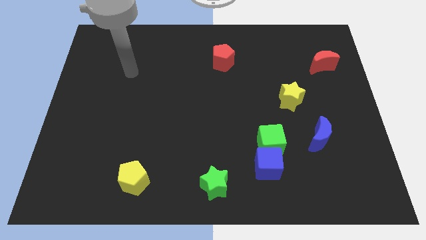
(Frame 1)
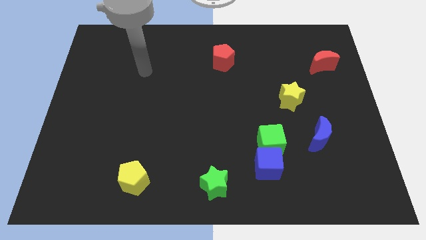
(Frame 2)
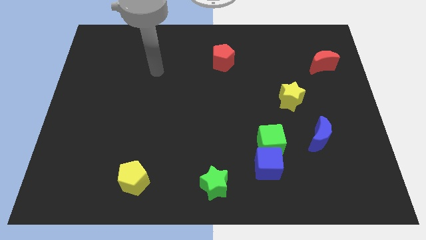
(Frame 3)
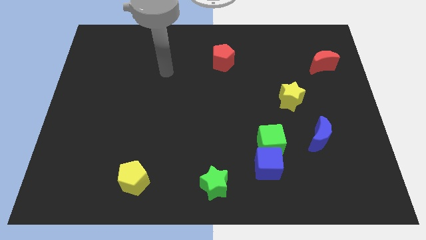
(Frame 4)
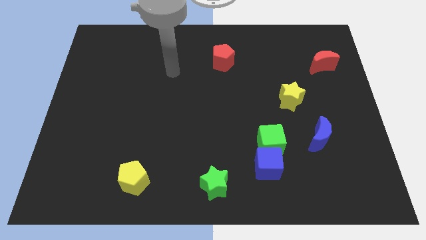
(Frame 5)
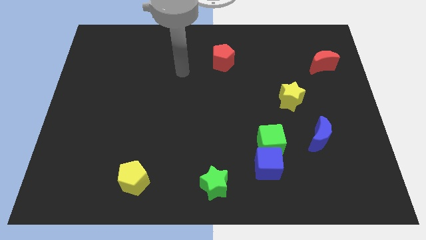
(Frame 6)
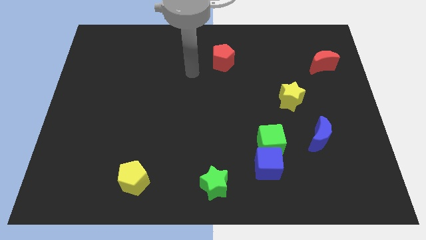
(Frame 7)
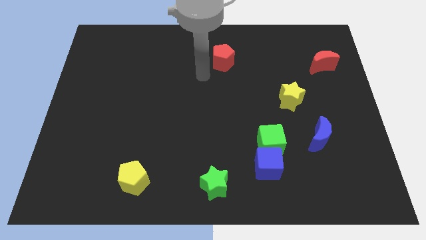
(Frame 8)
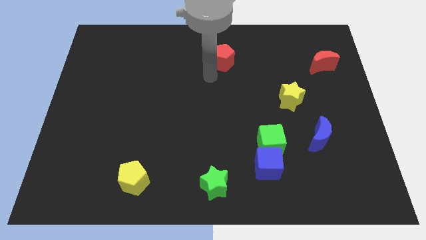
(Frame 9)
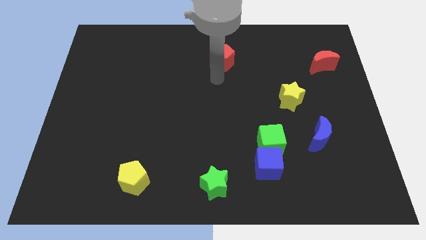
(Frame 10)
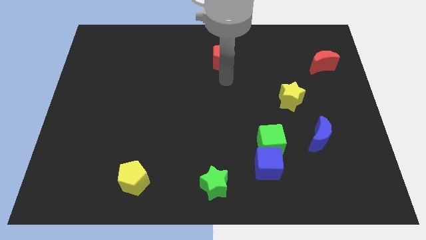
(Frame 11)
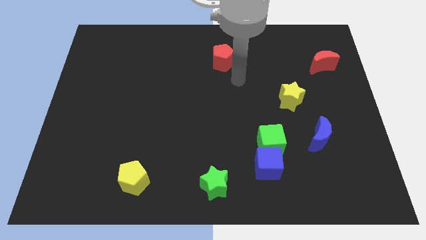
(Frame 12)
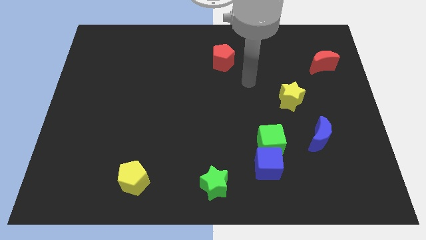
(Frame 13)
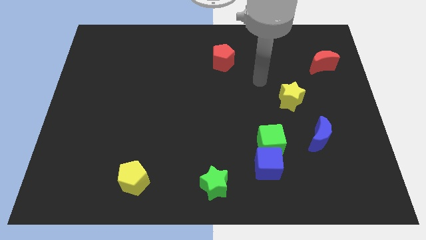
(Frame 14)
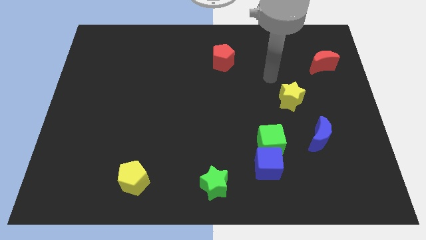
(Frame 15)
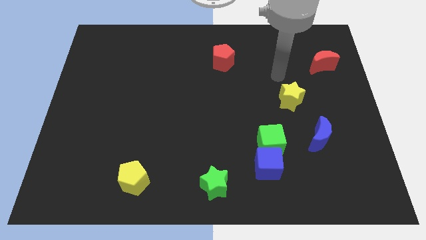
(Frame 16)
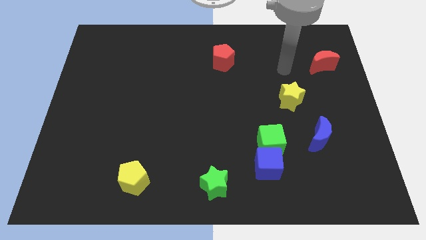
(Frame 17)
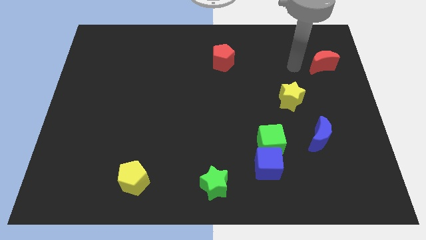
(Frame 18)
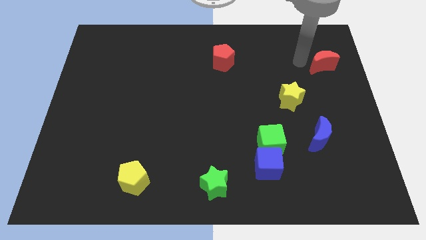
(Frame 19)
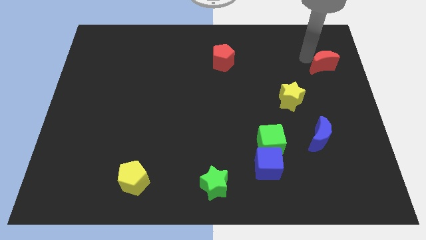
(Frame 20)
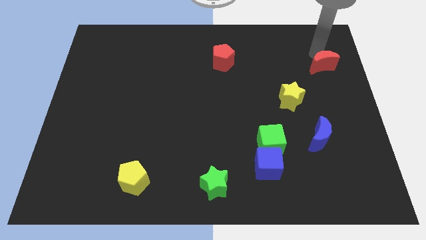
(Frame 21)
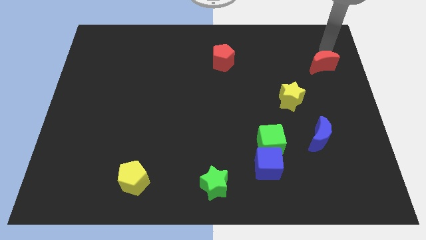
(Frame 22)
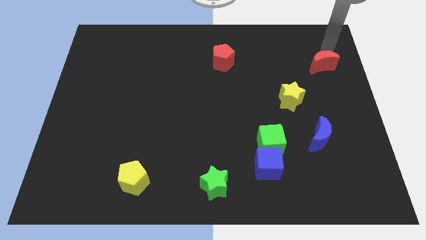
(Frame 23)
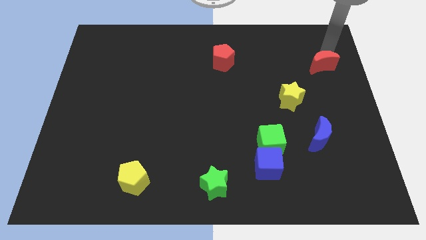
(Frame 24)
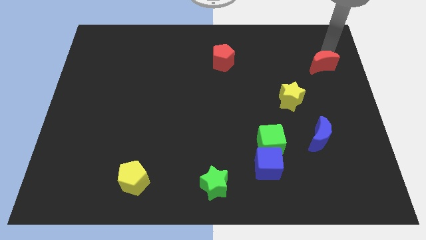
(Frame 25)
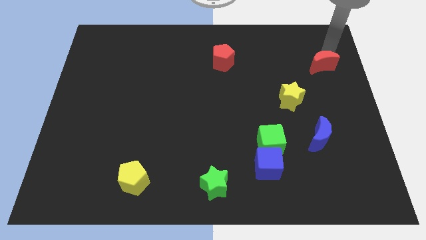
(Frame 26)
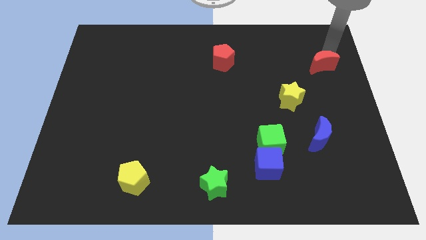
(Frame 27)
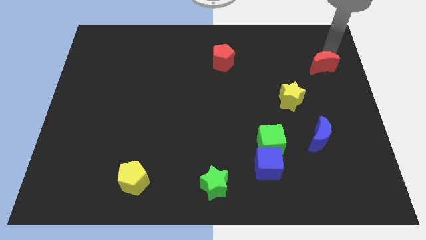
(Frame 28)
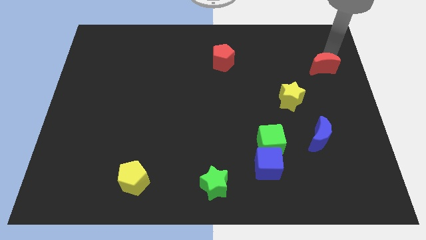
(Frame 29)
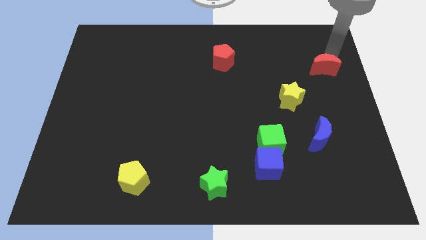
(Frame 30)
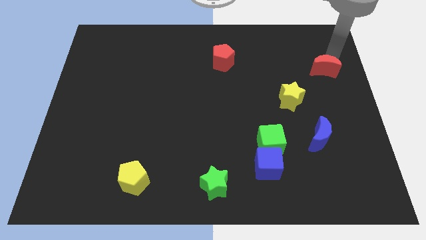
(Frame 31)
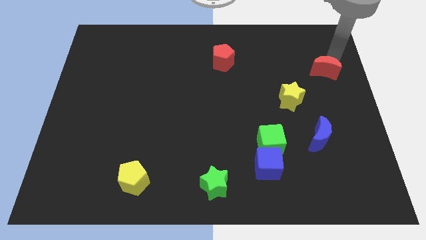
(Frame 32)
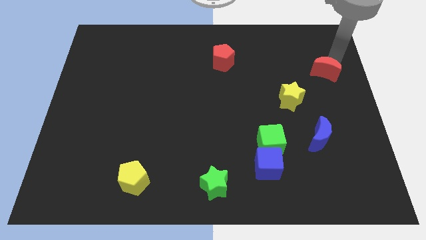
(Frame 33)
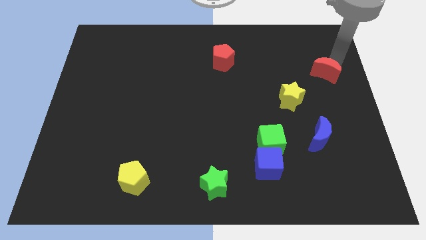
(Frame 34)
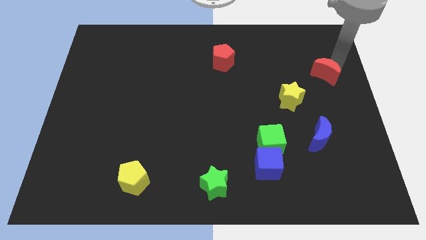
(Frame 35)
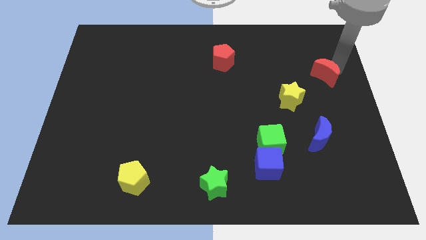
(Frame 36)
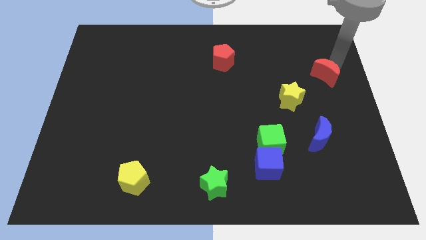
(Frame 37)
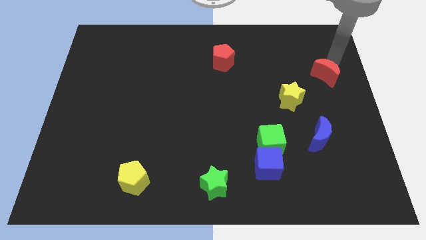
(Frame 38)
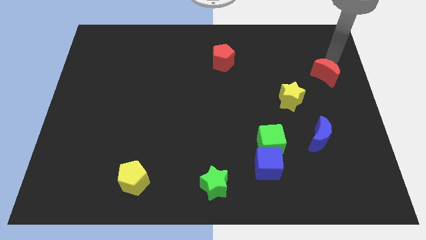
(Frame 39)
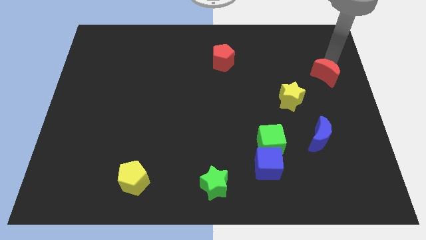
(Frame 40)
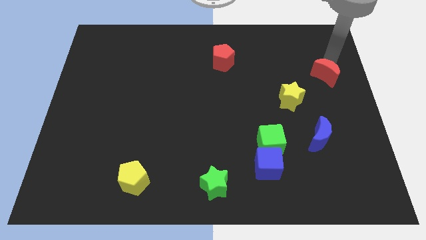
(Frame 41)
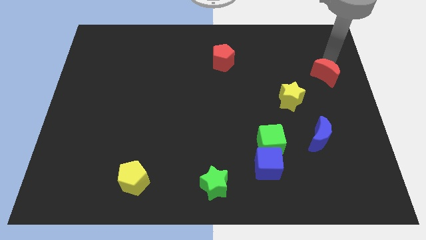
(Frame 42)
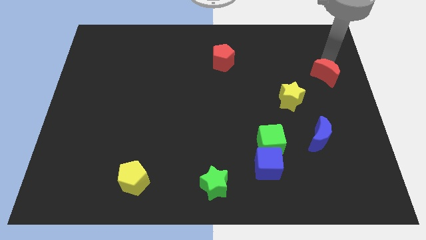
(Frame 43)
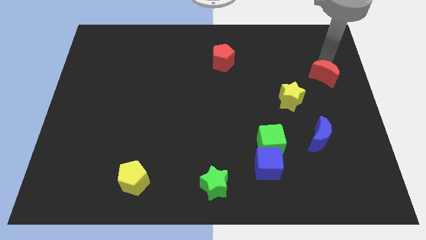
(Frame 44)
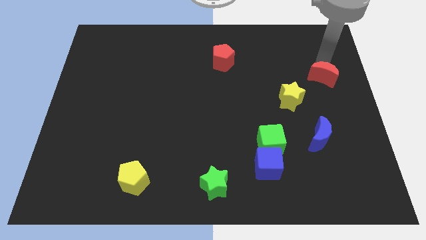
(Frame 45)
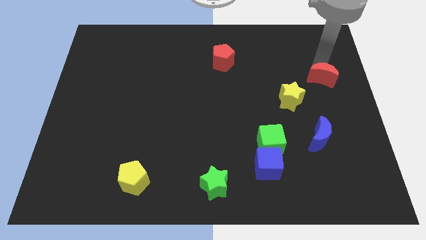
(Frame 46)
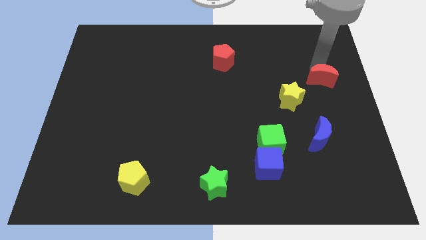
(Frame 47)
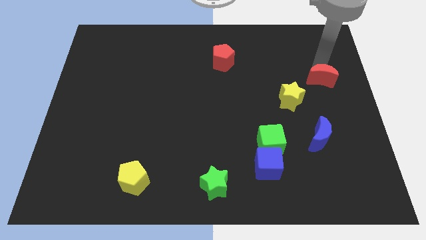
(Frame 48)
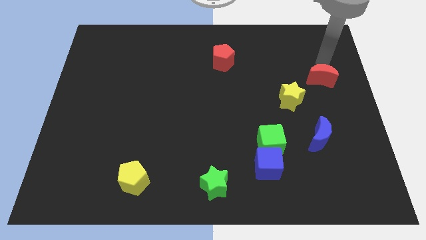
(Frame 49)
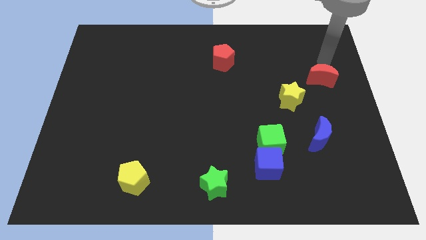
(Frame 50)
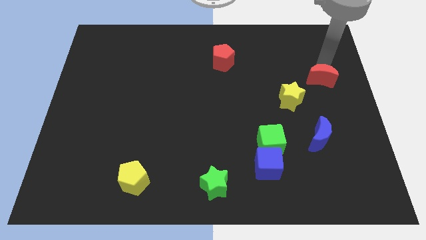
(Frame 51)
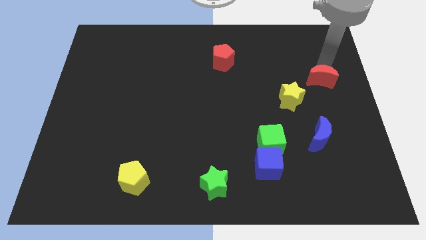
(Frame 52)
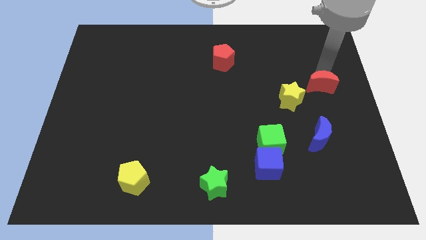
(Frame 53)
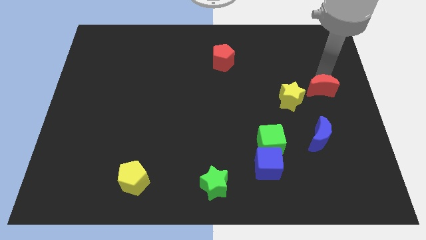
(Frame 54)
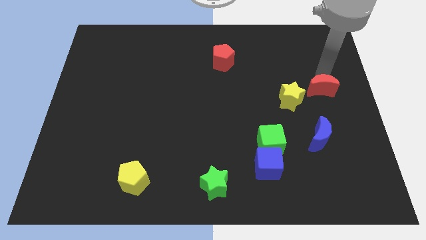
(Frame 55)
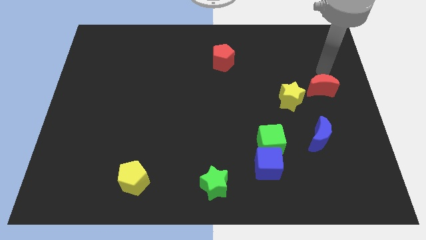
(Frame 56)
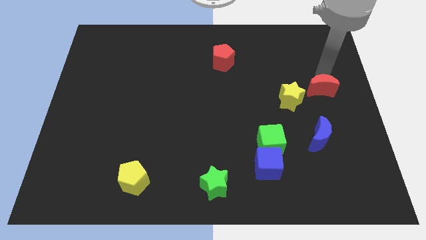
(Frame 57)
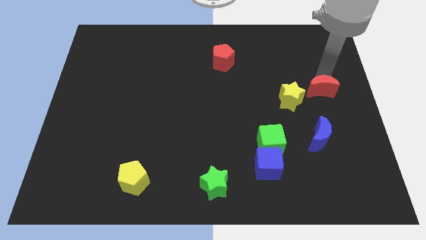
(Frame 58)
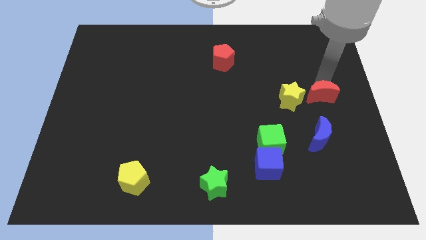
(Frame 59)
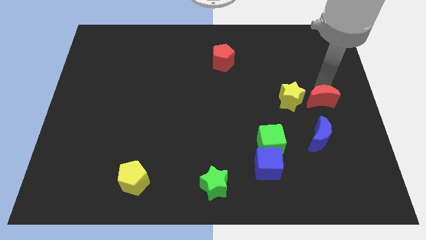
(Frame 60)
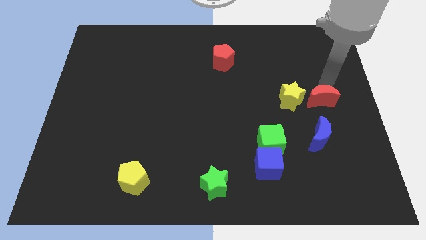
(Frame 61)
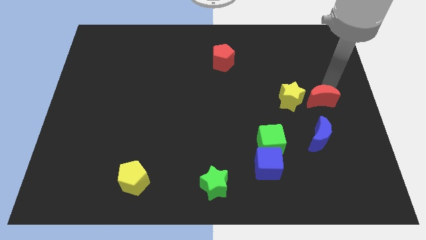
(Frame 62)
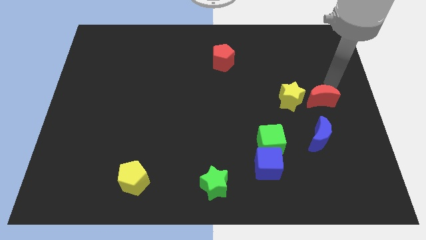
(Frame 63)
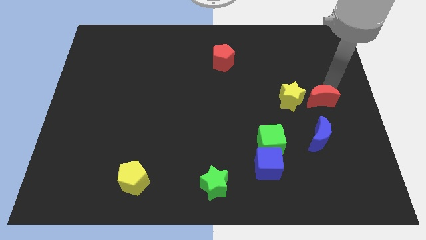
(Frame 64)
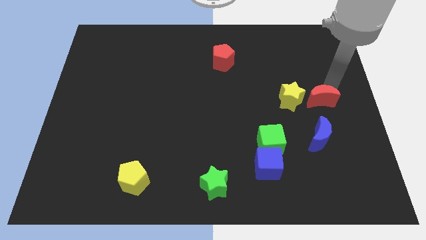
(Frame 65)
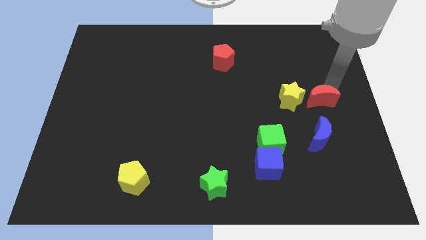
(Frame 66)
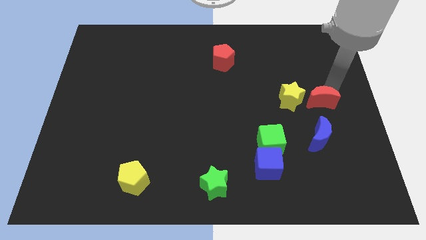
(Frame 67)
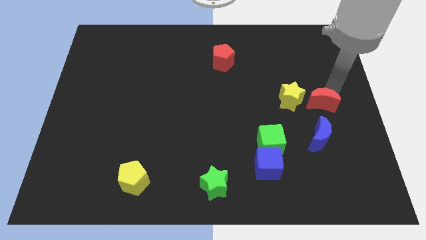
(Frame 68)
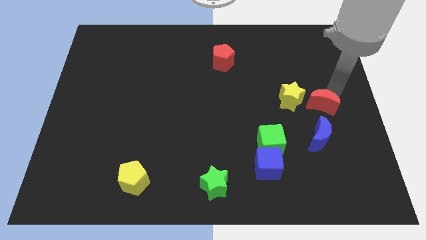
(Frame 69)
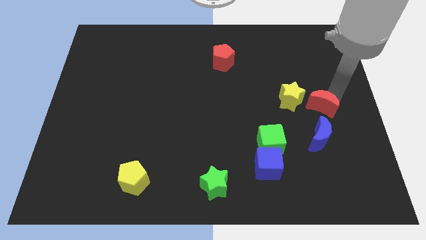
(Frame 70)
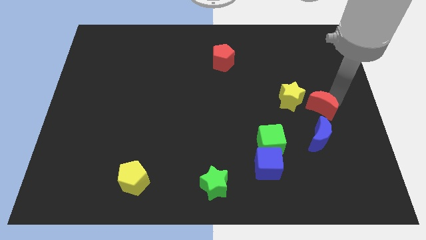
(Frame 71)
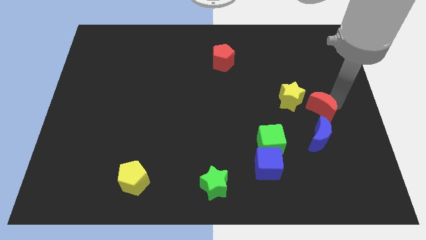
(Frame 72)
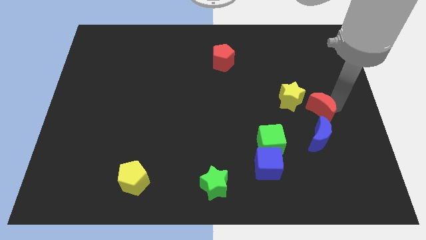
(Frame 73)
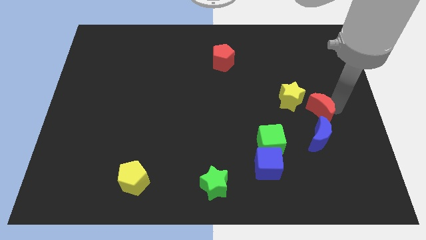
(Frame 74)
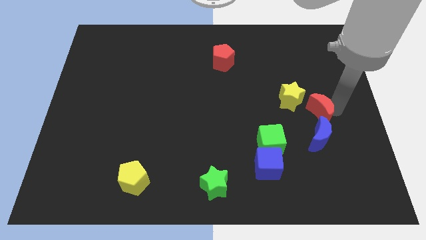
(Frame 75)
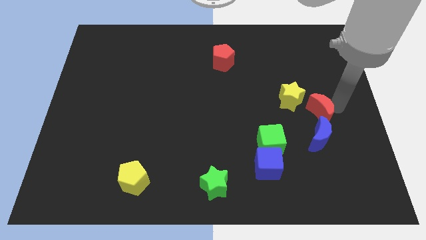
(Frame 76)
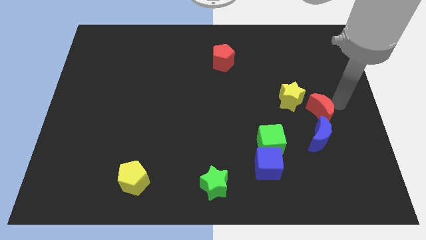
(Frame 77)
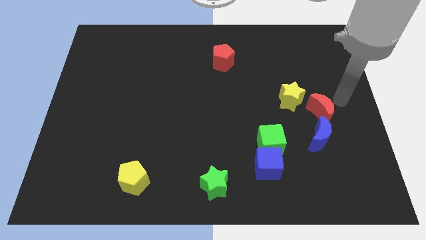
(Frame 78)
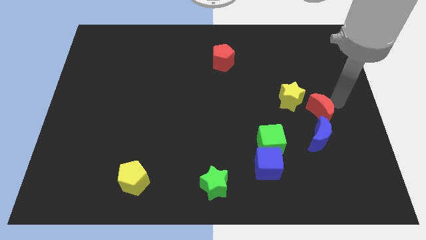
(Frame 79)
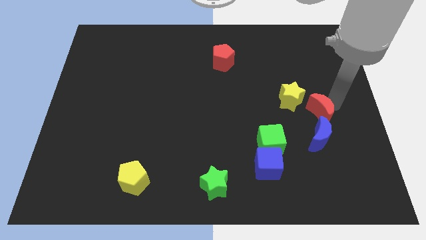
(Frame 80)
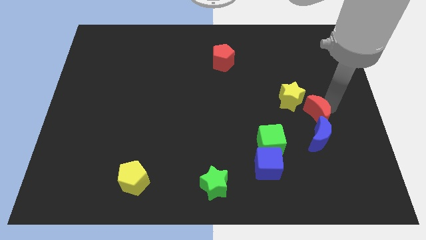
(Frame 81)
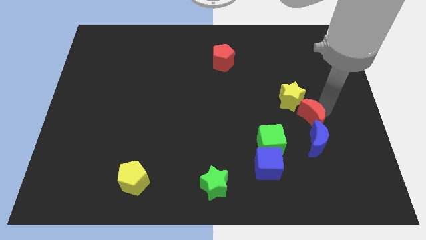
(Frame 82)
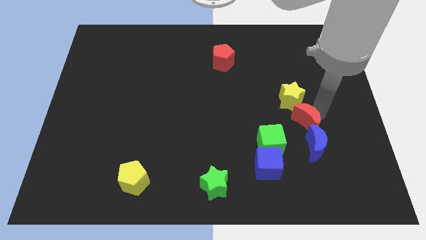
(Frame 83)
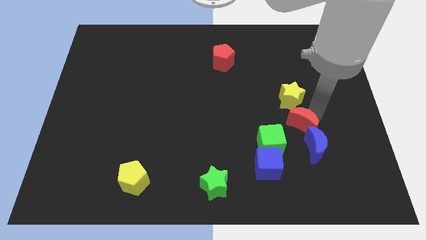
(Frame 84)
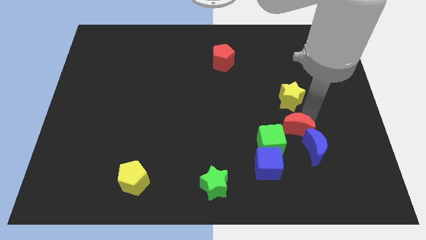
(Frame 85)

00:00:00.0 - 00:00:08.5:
push the red moon to the top right of the blue cube
